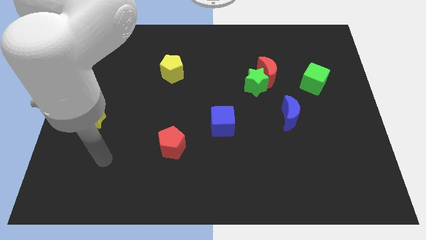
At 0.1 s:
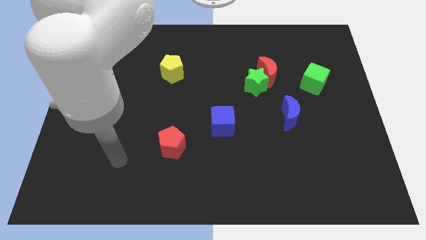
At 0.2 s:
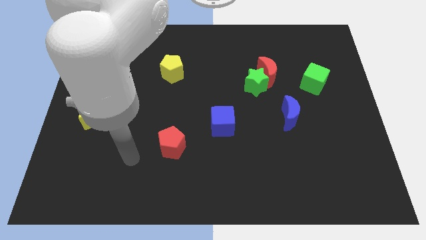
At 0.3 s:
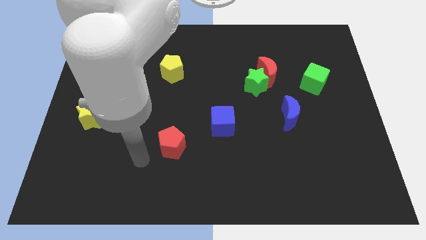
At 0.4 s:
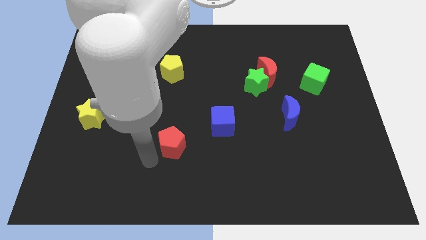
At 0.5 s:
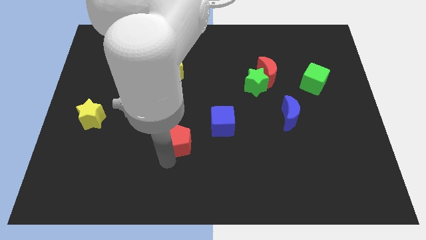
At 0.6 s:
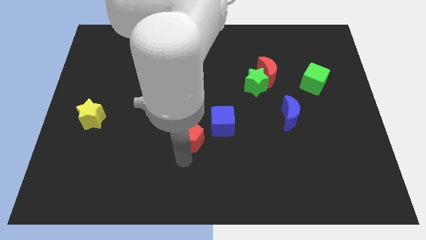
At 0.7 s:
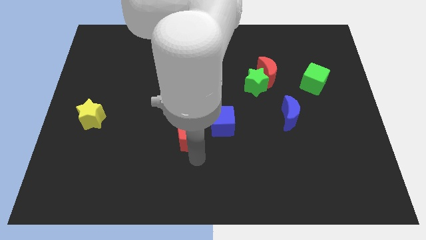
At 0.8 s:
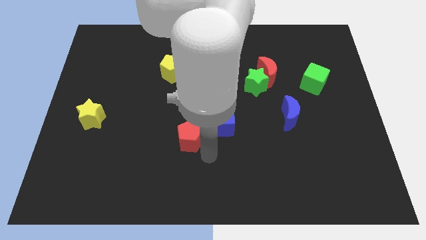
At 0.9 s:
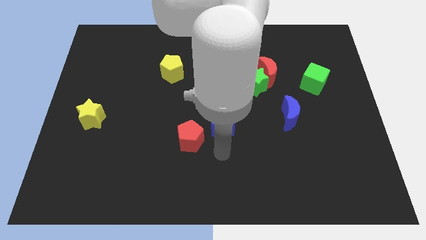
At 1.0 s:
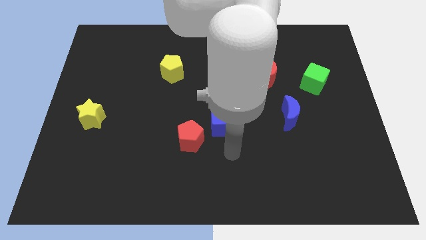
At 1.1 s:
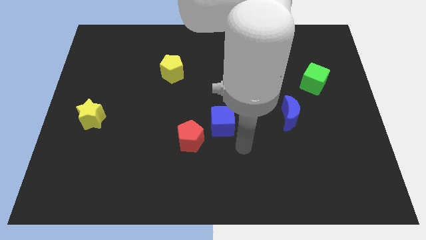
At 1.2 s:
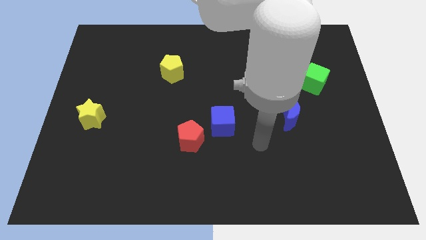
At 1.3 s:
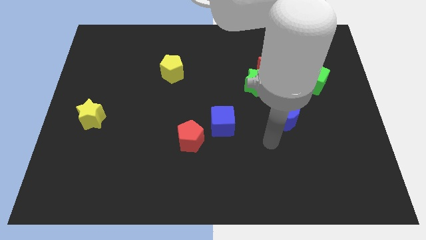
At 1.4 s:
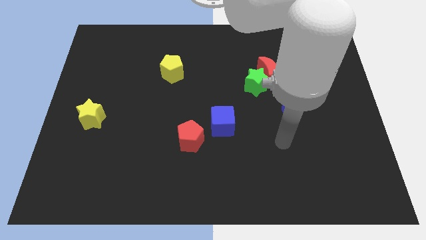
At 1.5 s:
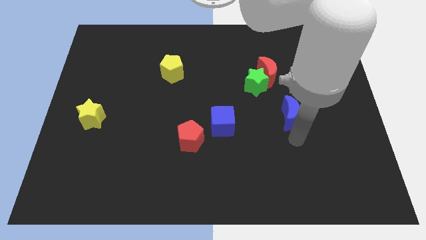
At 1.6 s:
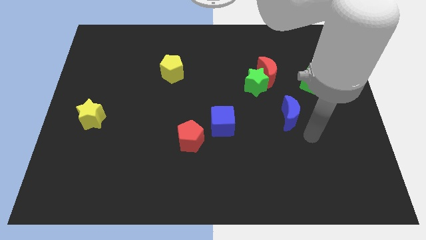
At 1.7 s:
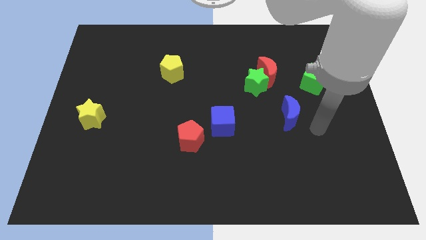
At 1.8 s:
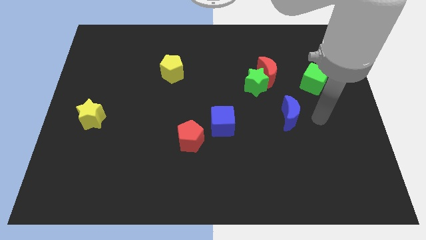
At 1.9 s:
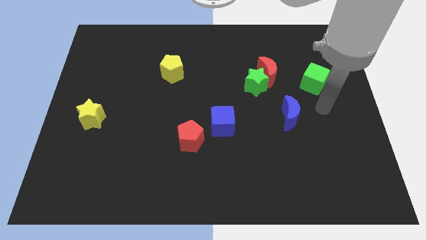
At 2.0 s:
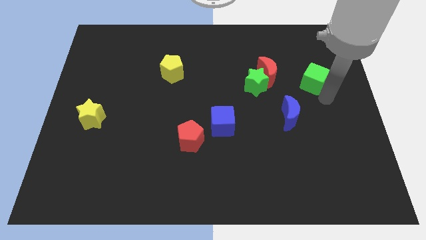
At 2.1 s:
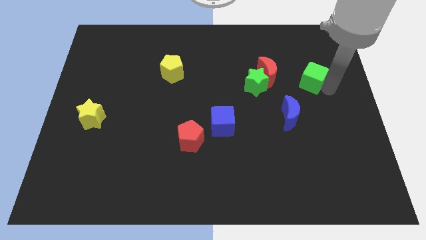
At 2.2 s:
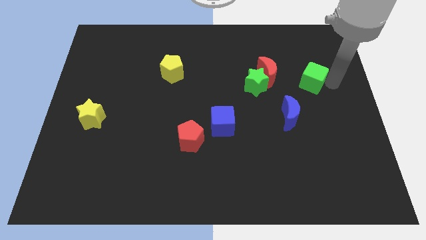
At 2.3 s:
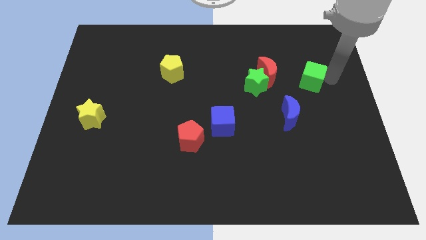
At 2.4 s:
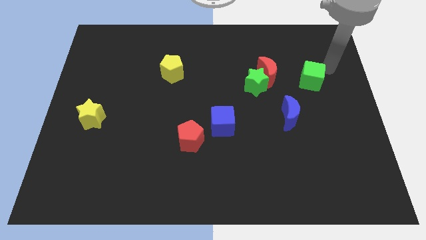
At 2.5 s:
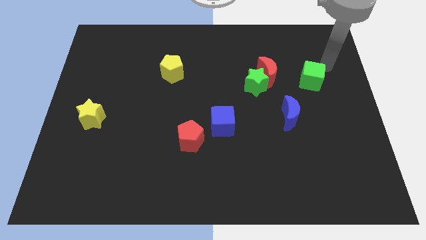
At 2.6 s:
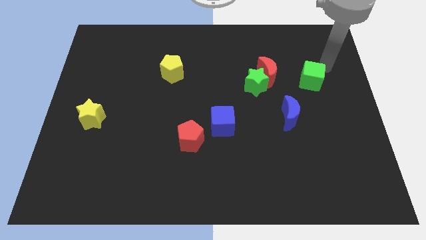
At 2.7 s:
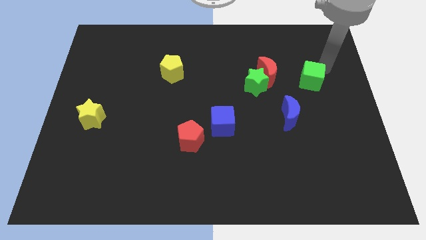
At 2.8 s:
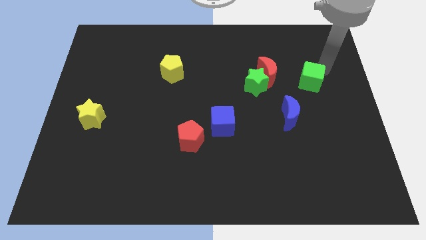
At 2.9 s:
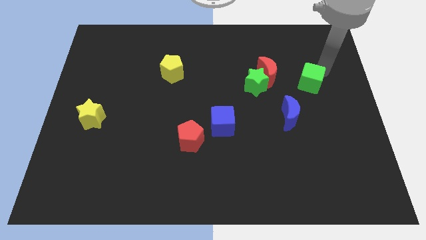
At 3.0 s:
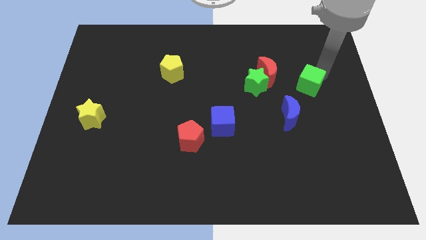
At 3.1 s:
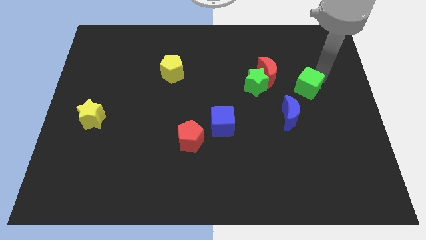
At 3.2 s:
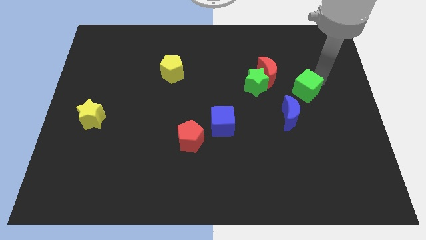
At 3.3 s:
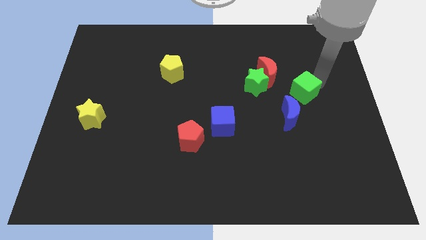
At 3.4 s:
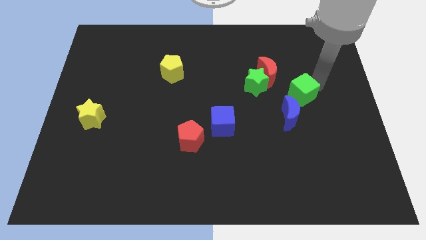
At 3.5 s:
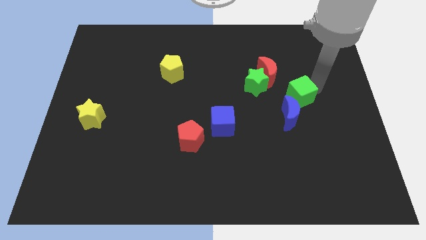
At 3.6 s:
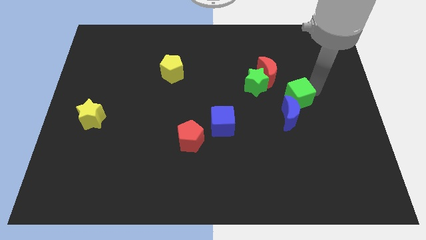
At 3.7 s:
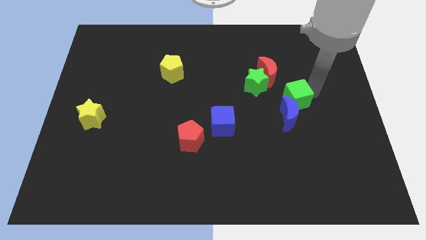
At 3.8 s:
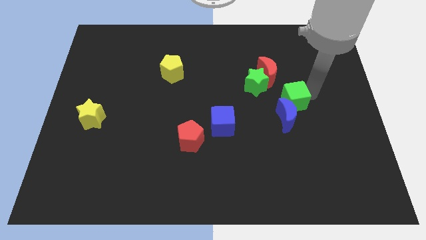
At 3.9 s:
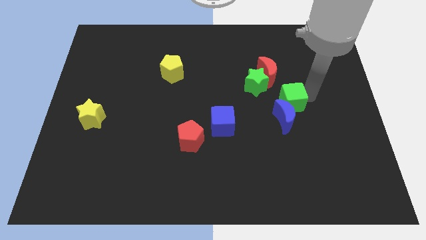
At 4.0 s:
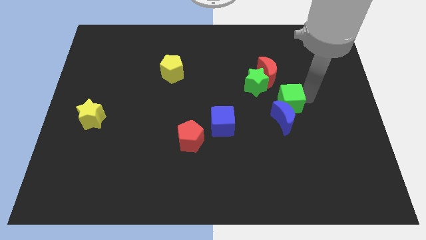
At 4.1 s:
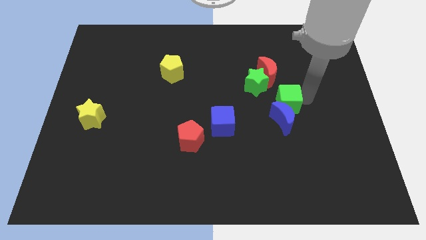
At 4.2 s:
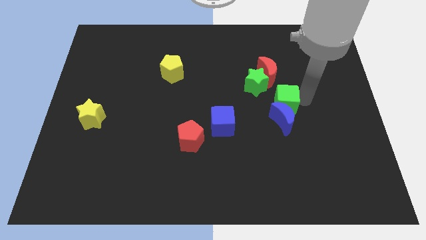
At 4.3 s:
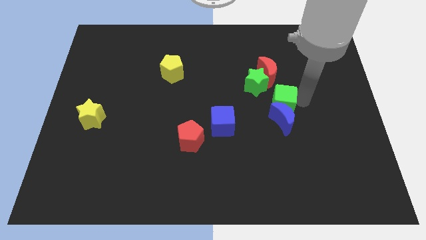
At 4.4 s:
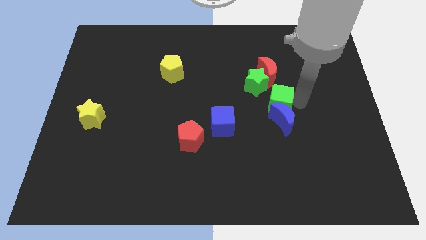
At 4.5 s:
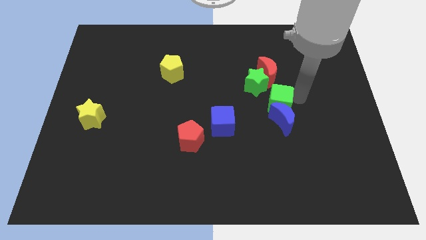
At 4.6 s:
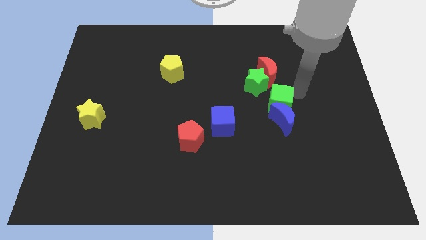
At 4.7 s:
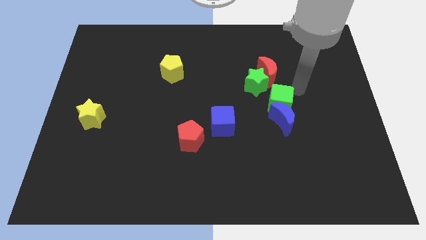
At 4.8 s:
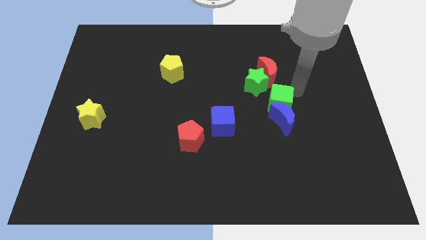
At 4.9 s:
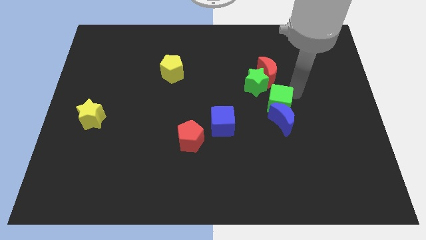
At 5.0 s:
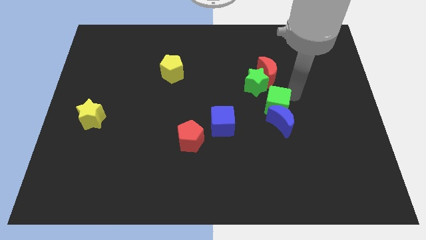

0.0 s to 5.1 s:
move the green cube to the bottom of the green star

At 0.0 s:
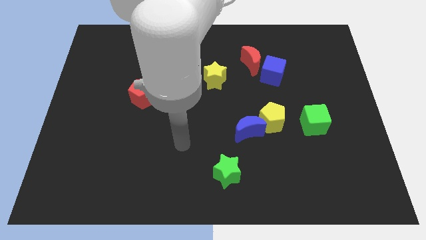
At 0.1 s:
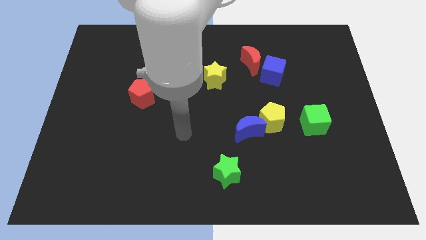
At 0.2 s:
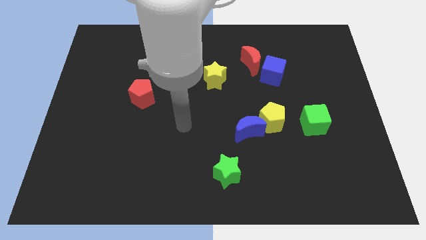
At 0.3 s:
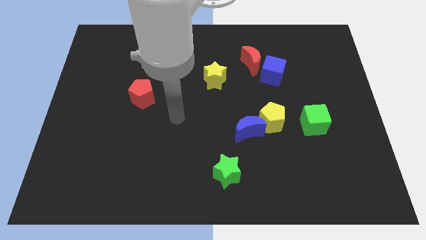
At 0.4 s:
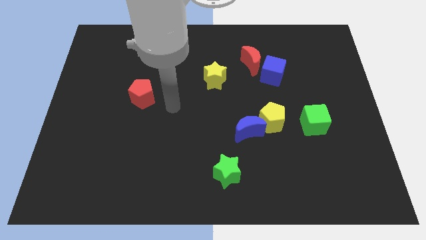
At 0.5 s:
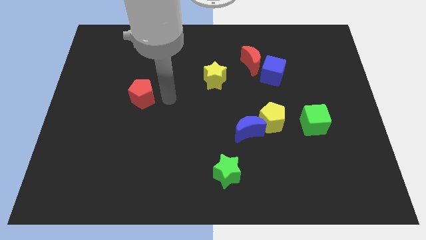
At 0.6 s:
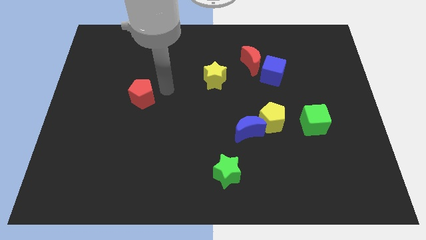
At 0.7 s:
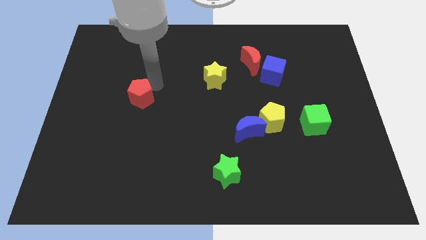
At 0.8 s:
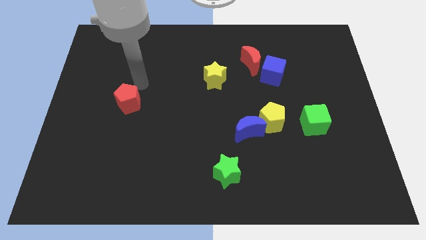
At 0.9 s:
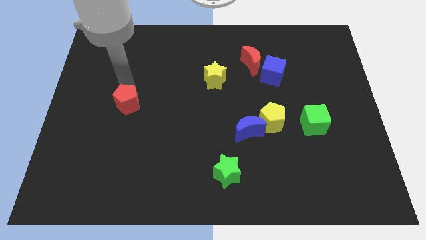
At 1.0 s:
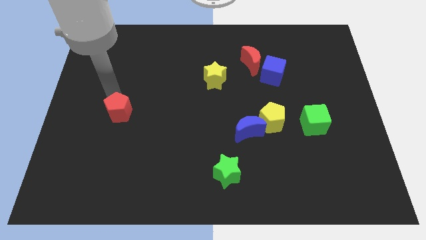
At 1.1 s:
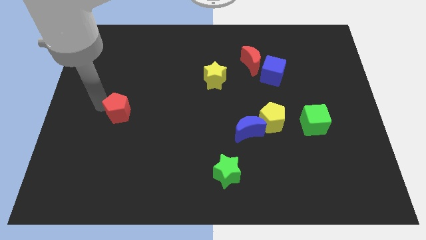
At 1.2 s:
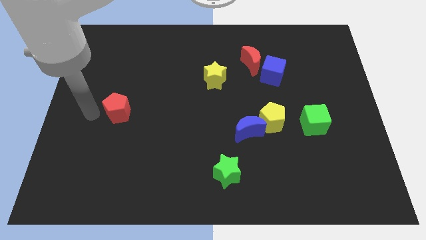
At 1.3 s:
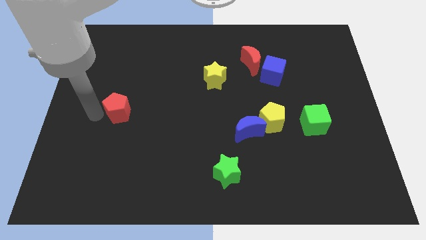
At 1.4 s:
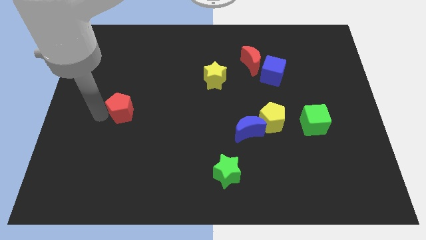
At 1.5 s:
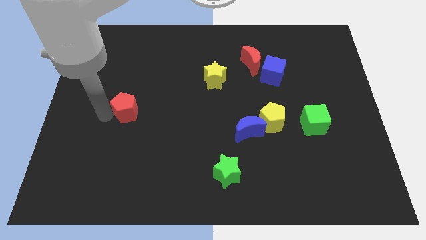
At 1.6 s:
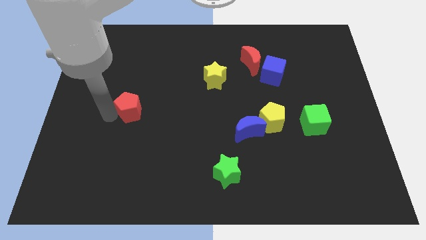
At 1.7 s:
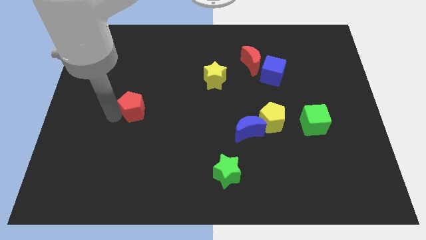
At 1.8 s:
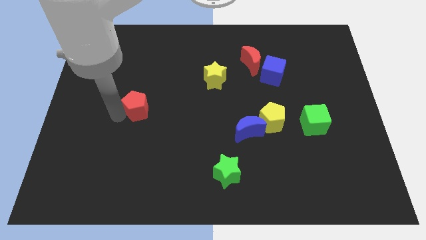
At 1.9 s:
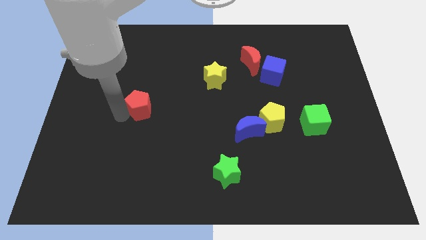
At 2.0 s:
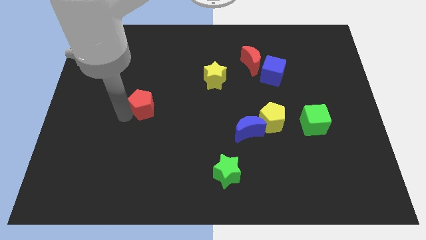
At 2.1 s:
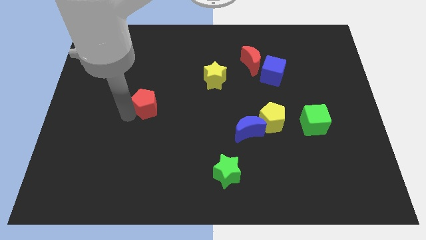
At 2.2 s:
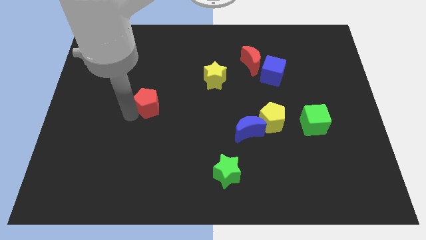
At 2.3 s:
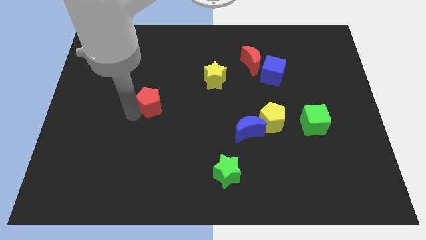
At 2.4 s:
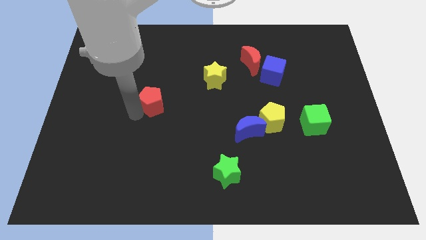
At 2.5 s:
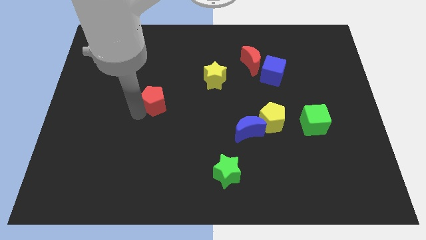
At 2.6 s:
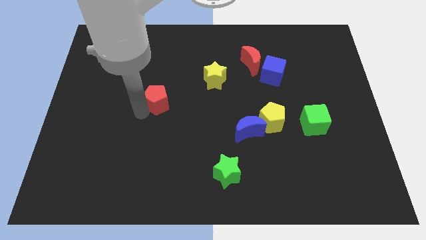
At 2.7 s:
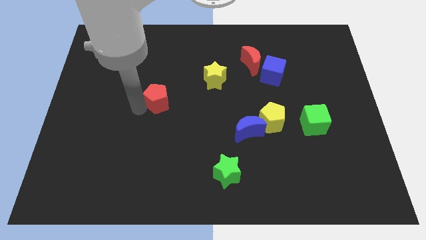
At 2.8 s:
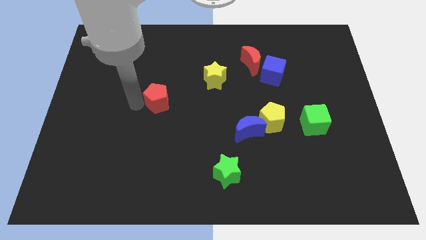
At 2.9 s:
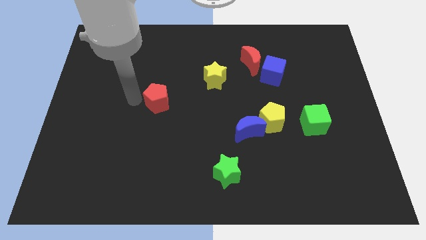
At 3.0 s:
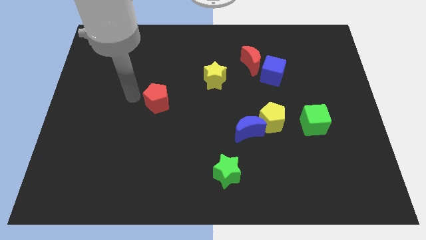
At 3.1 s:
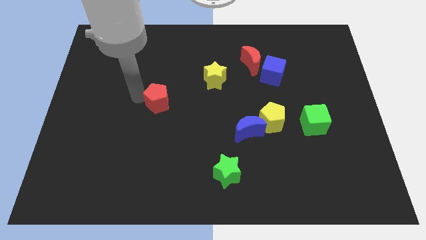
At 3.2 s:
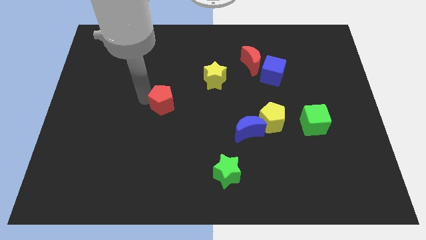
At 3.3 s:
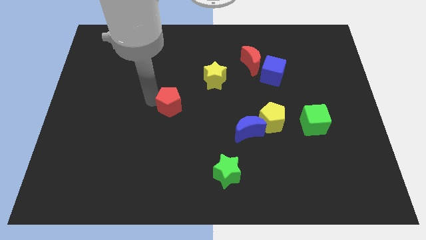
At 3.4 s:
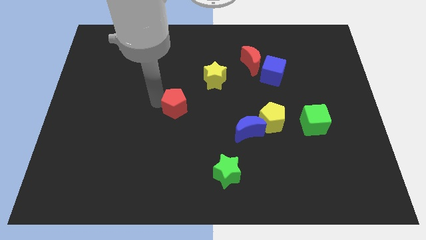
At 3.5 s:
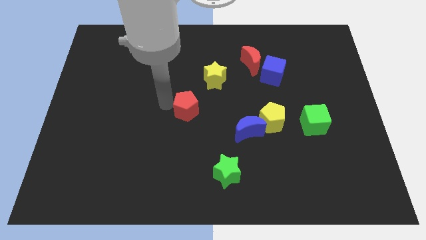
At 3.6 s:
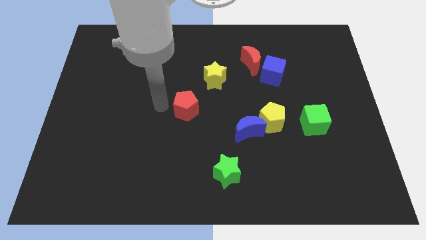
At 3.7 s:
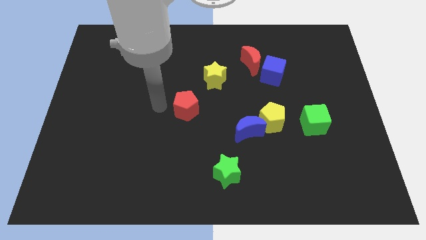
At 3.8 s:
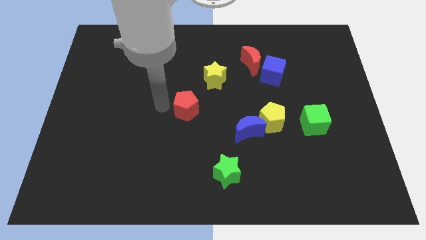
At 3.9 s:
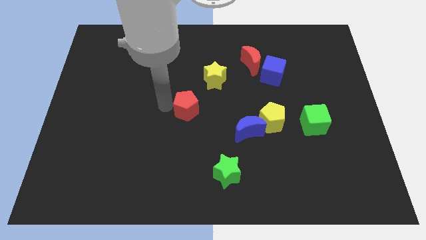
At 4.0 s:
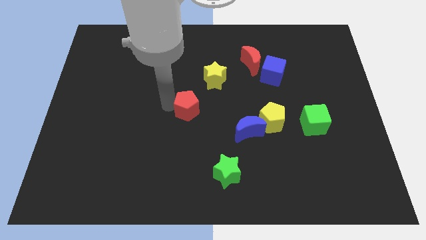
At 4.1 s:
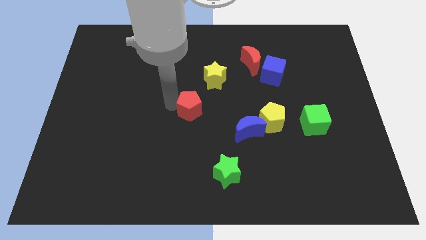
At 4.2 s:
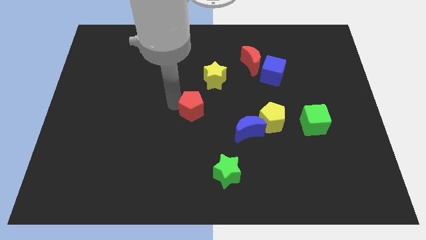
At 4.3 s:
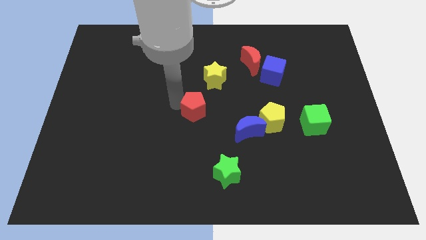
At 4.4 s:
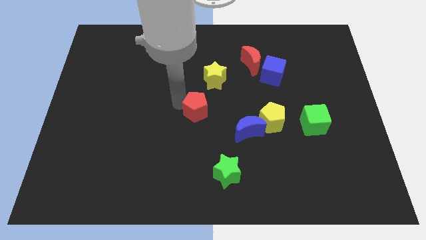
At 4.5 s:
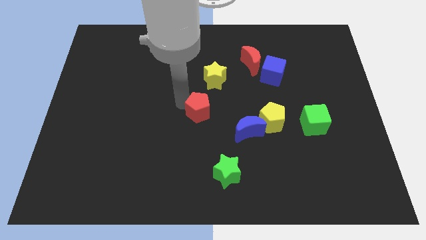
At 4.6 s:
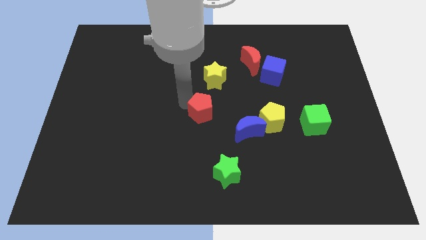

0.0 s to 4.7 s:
push the red pentagon to the top left side of the blue moon
